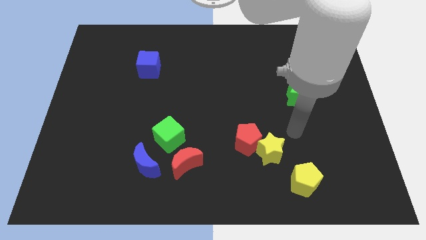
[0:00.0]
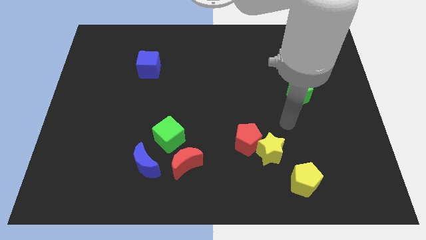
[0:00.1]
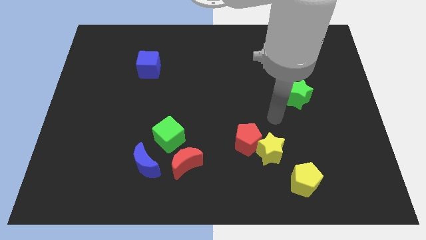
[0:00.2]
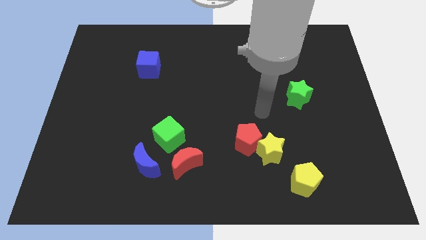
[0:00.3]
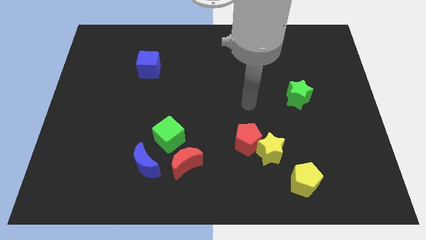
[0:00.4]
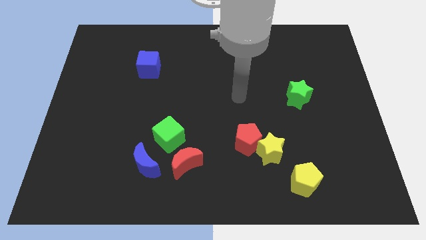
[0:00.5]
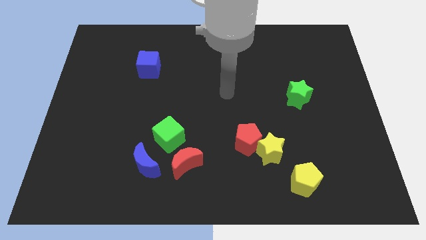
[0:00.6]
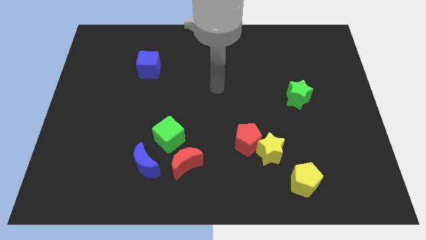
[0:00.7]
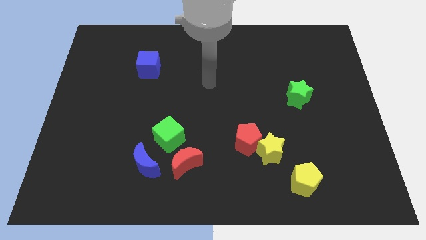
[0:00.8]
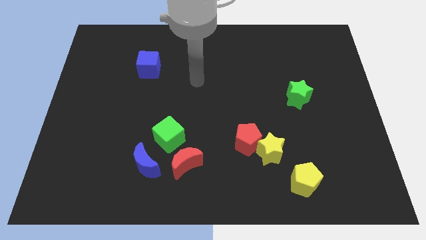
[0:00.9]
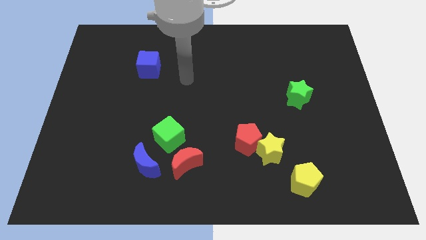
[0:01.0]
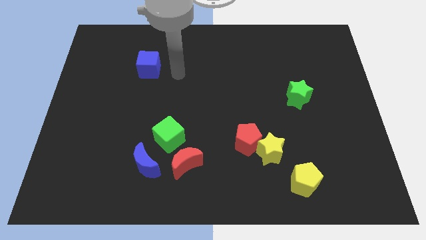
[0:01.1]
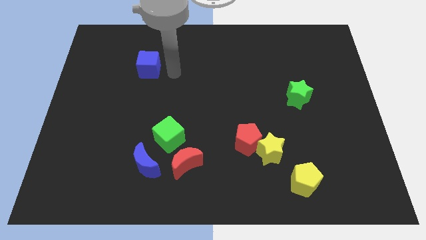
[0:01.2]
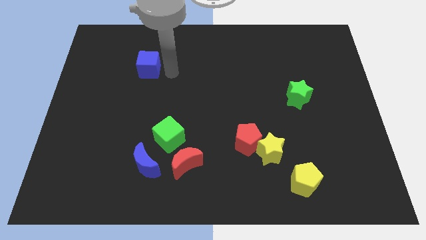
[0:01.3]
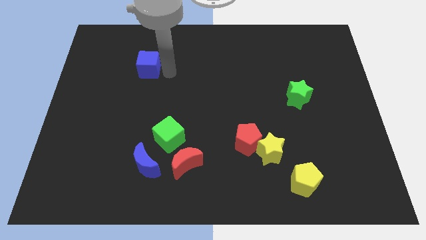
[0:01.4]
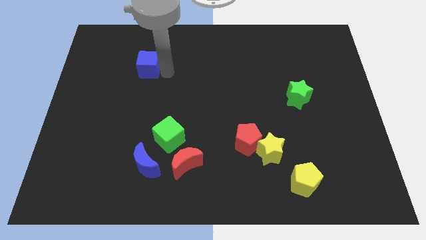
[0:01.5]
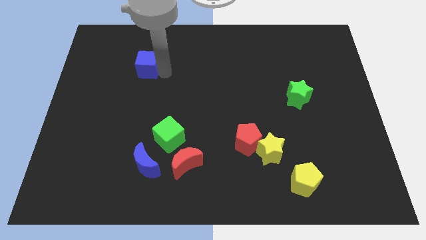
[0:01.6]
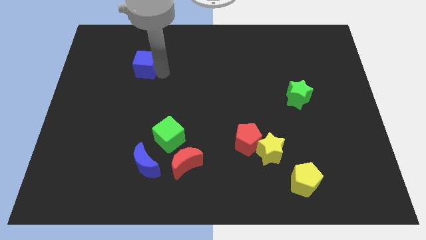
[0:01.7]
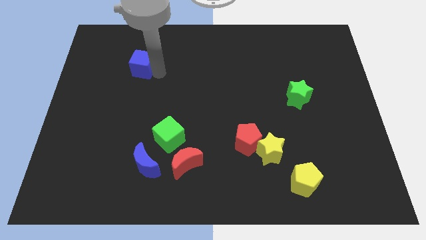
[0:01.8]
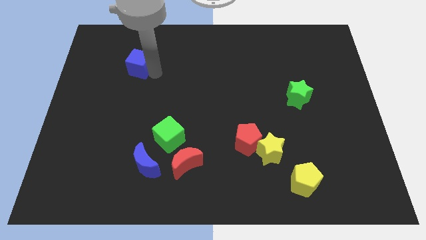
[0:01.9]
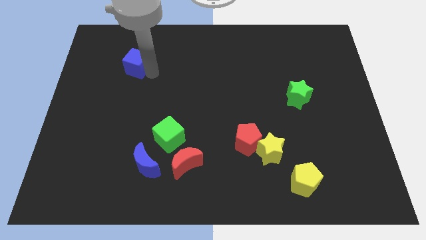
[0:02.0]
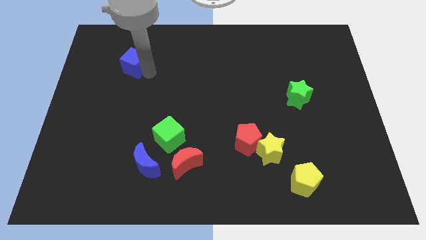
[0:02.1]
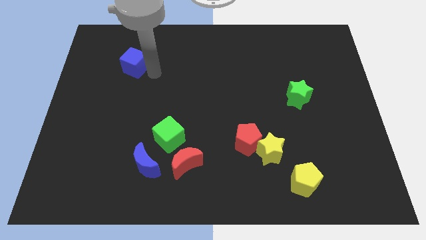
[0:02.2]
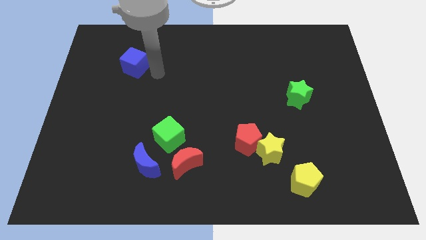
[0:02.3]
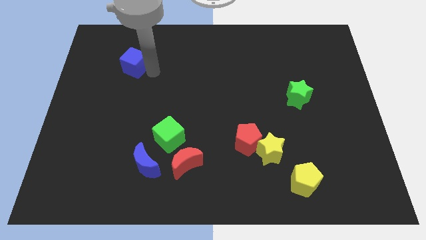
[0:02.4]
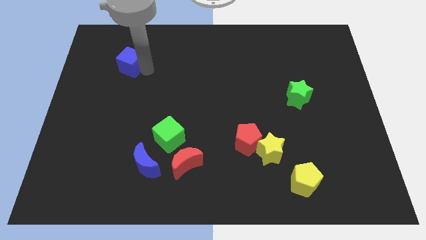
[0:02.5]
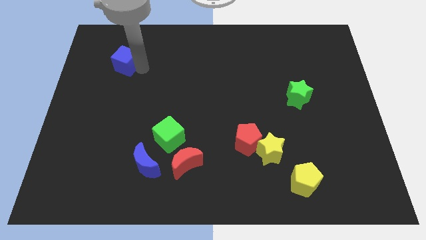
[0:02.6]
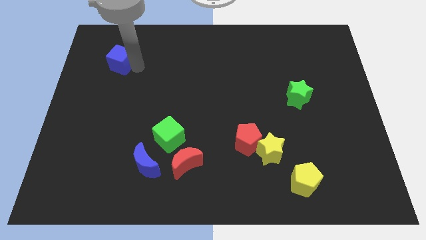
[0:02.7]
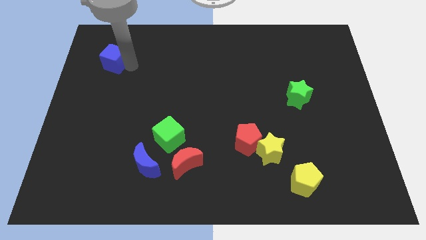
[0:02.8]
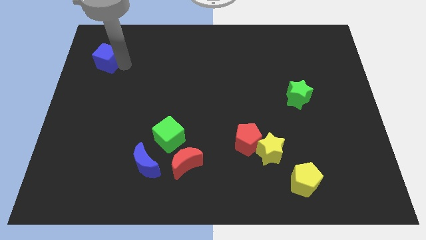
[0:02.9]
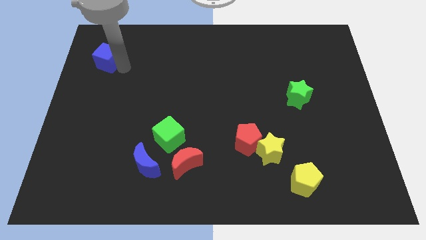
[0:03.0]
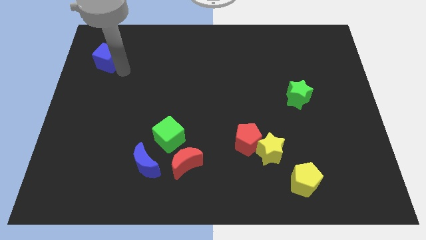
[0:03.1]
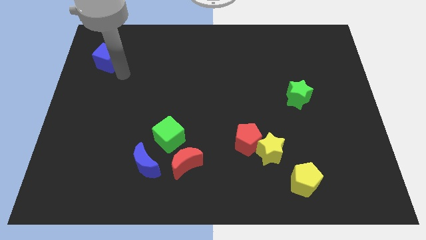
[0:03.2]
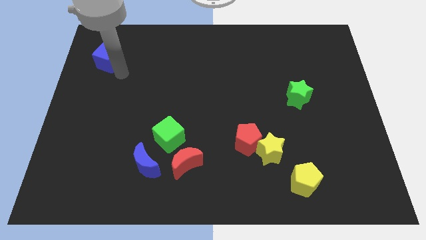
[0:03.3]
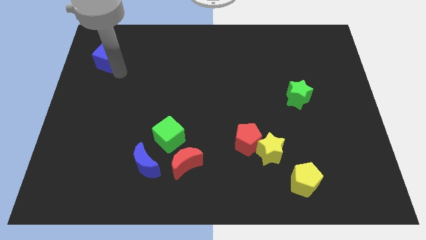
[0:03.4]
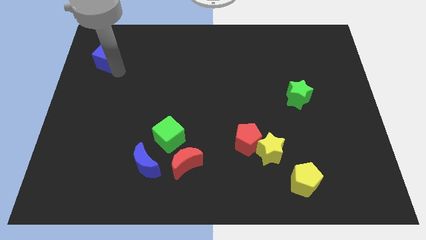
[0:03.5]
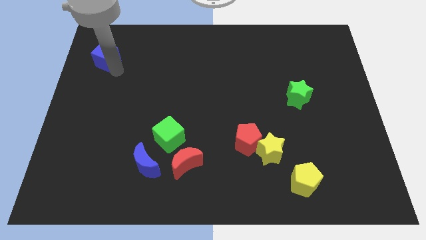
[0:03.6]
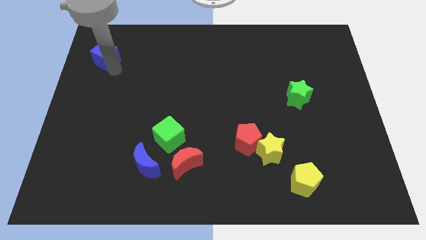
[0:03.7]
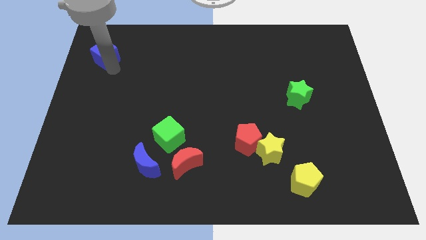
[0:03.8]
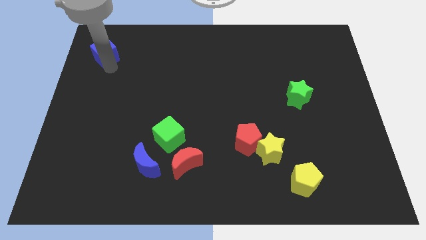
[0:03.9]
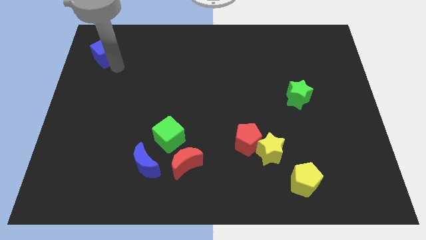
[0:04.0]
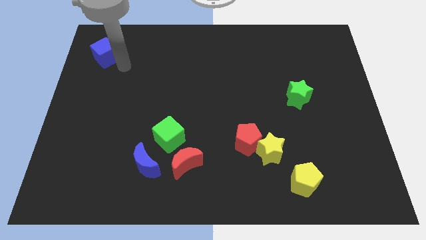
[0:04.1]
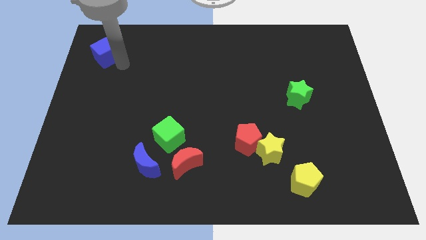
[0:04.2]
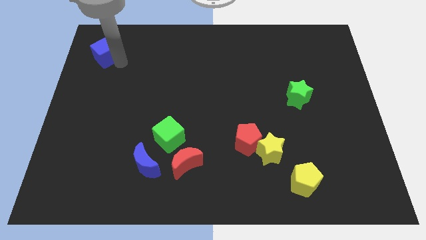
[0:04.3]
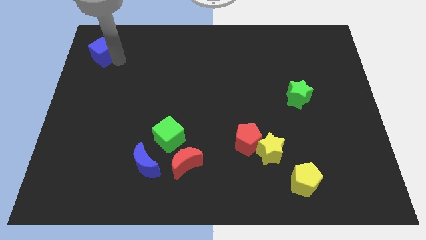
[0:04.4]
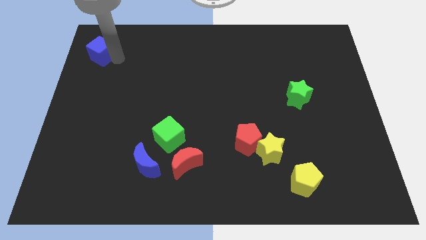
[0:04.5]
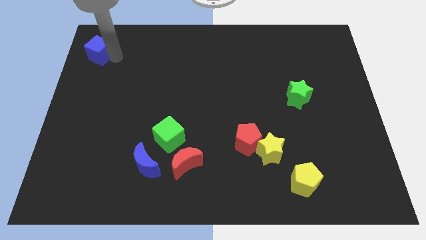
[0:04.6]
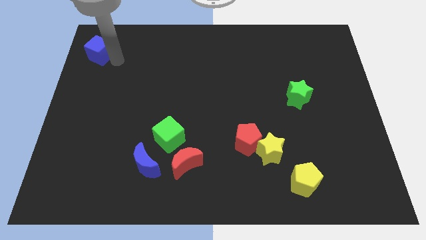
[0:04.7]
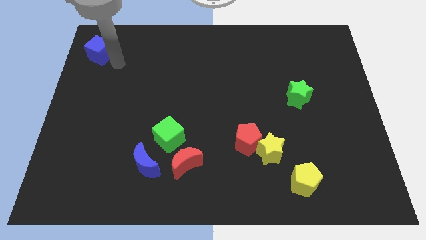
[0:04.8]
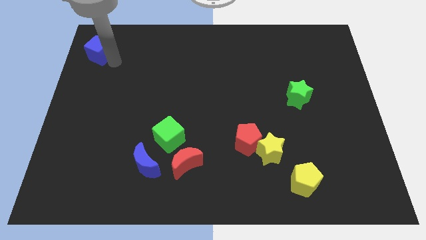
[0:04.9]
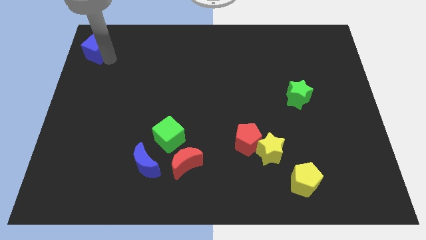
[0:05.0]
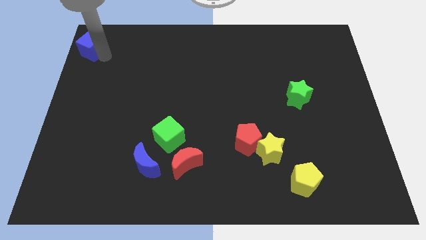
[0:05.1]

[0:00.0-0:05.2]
move the blue cube to the upper left corner

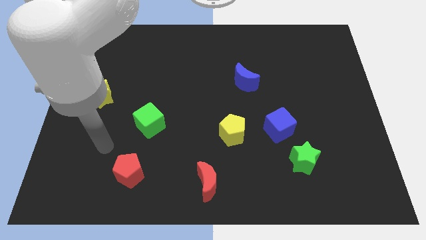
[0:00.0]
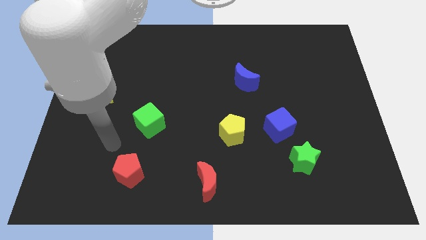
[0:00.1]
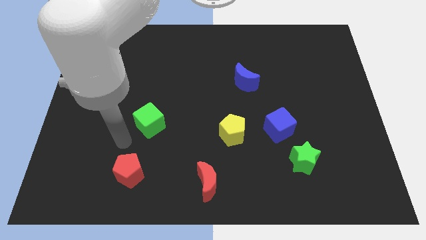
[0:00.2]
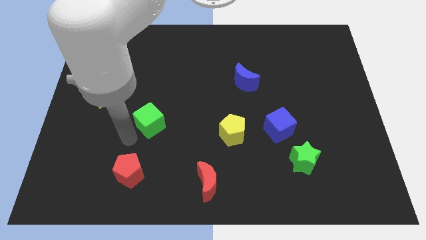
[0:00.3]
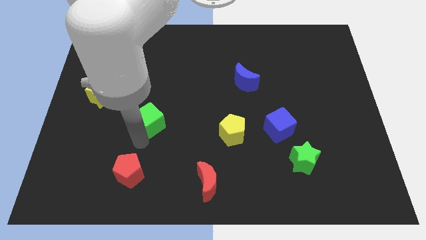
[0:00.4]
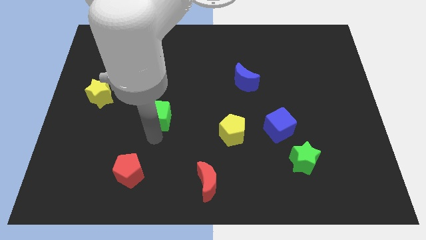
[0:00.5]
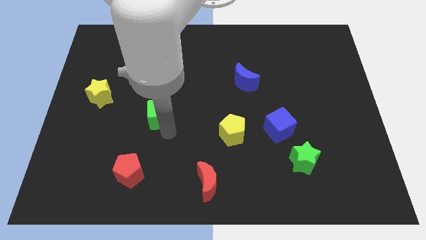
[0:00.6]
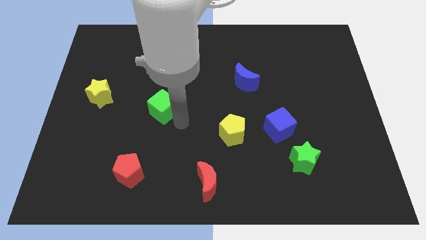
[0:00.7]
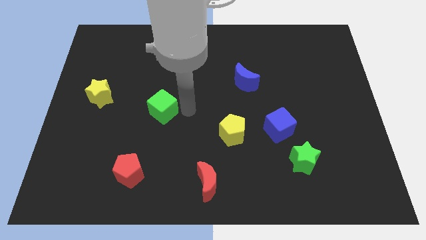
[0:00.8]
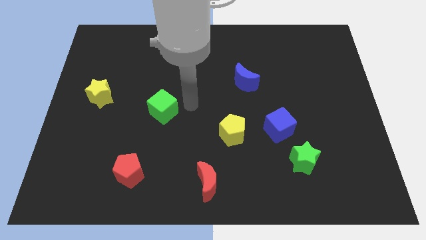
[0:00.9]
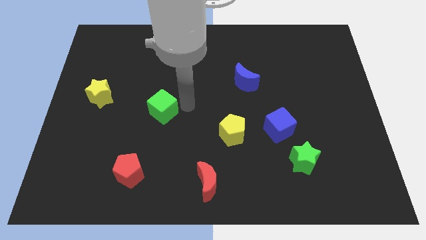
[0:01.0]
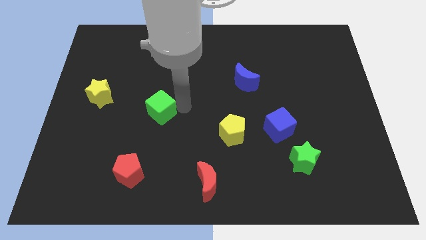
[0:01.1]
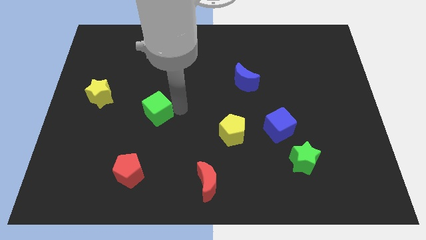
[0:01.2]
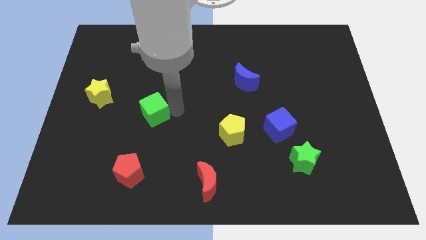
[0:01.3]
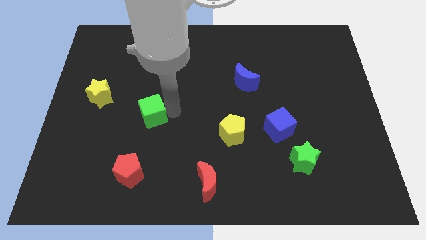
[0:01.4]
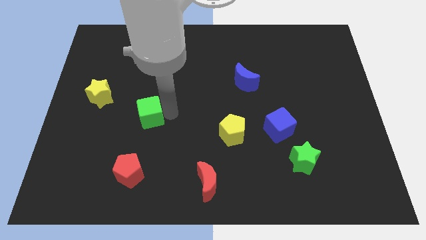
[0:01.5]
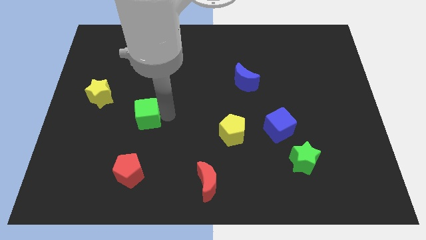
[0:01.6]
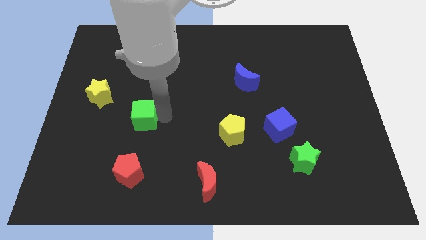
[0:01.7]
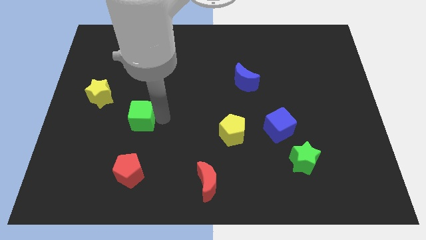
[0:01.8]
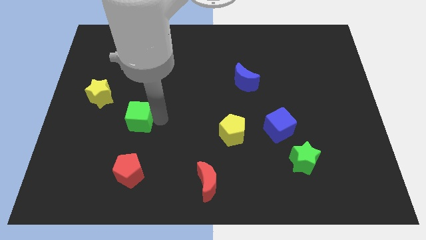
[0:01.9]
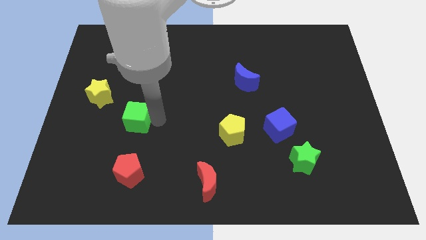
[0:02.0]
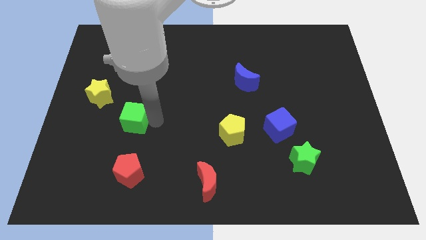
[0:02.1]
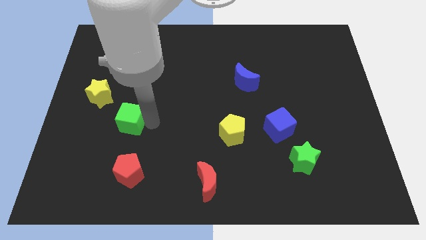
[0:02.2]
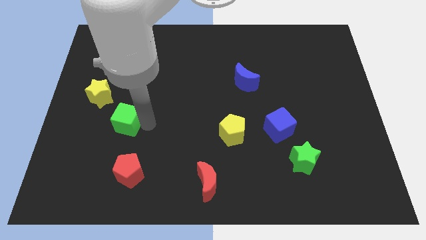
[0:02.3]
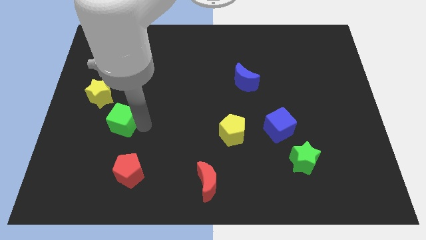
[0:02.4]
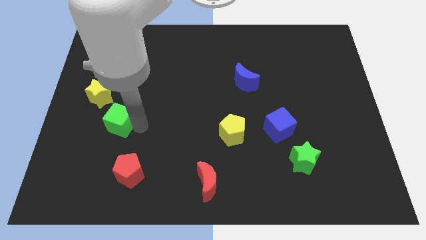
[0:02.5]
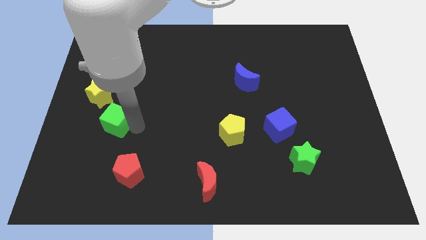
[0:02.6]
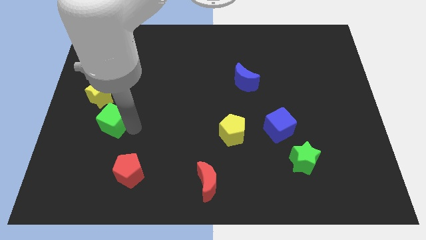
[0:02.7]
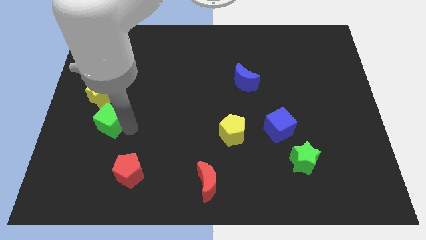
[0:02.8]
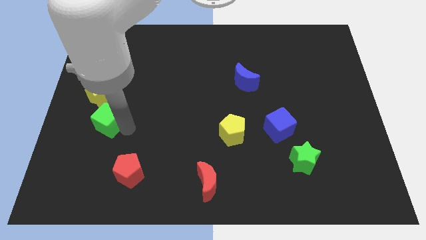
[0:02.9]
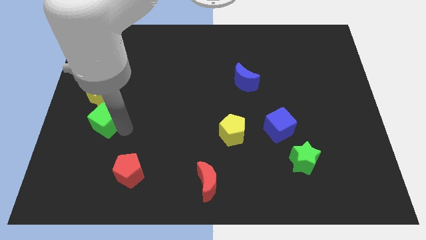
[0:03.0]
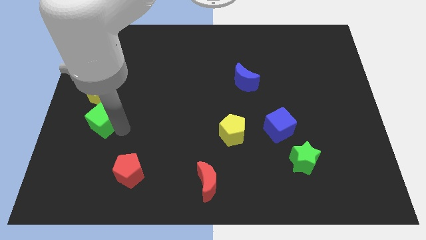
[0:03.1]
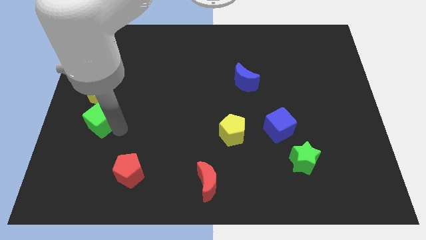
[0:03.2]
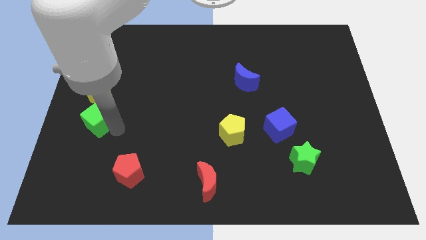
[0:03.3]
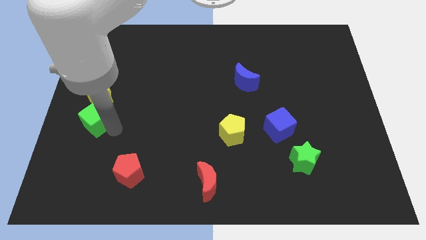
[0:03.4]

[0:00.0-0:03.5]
slide the green cube to the center left
